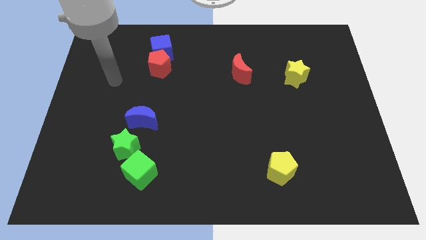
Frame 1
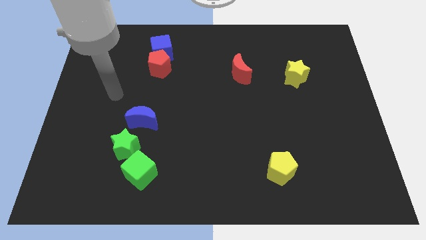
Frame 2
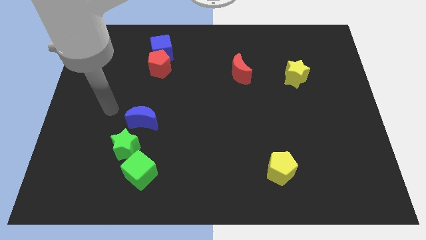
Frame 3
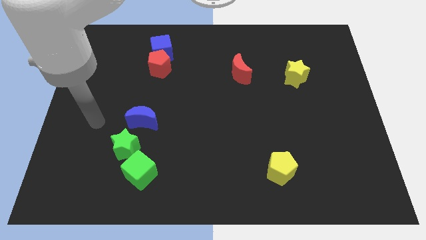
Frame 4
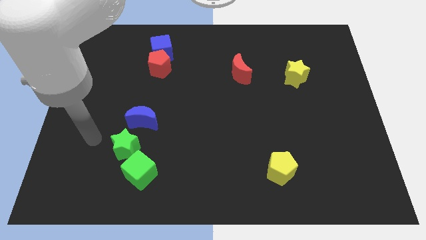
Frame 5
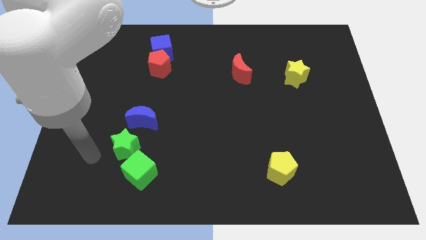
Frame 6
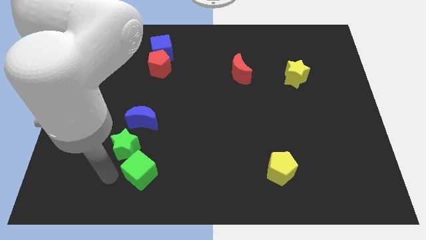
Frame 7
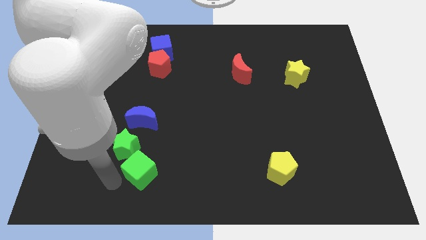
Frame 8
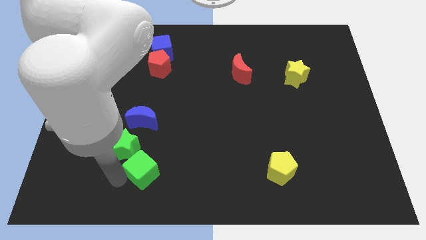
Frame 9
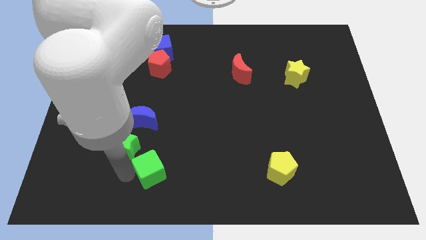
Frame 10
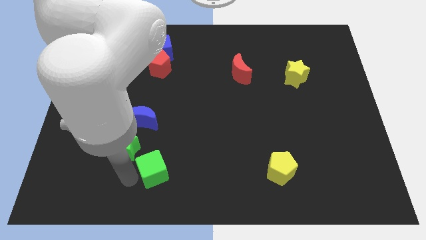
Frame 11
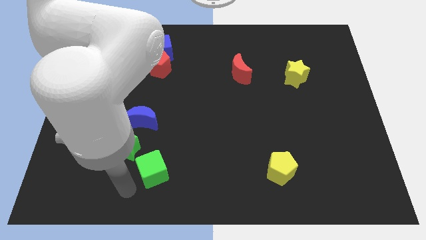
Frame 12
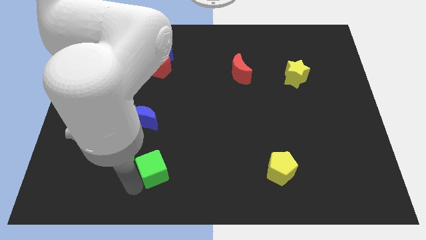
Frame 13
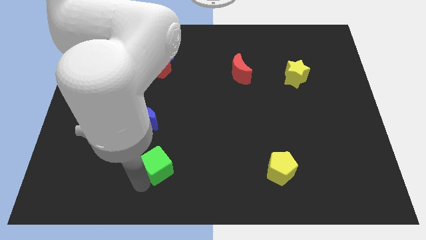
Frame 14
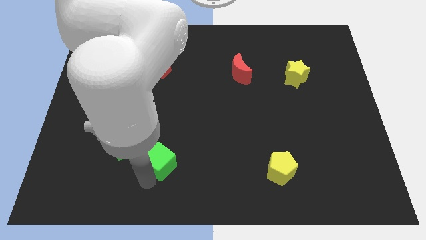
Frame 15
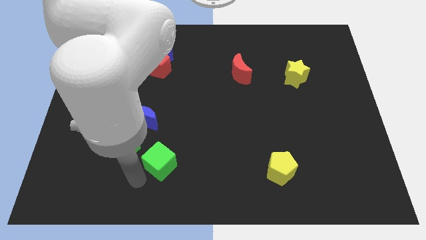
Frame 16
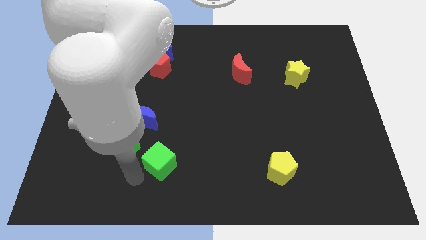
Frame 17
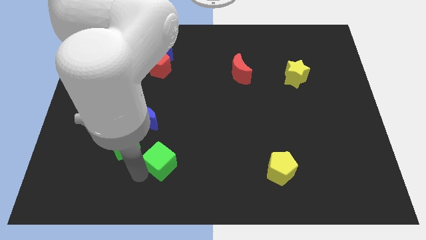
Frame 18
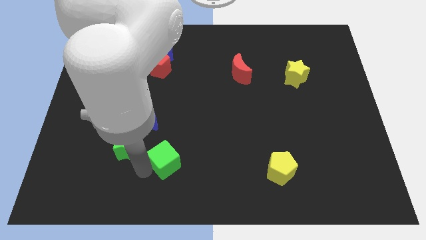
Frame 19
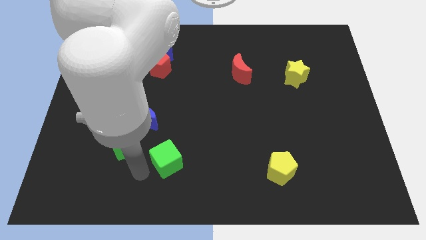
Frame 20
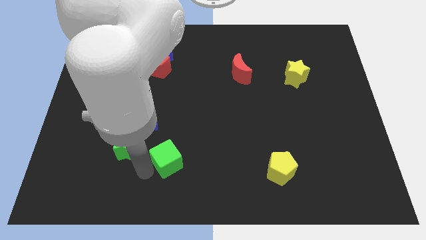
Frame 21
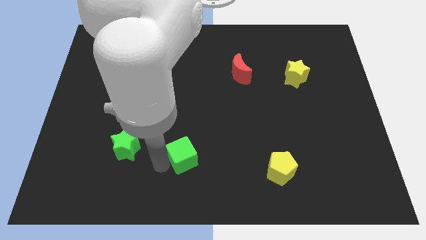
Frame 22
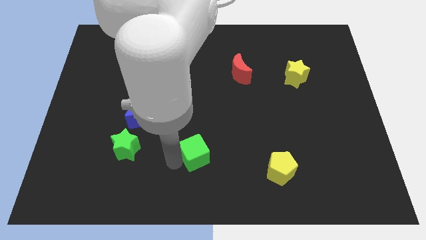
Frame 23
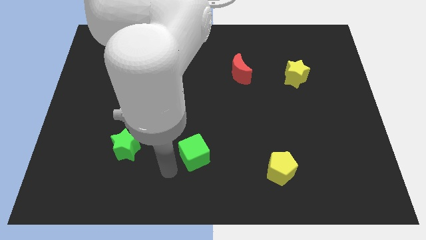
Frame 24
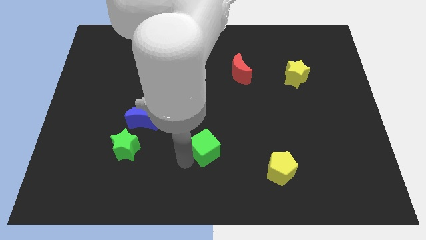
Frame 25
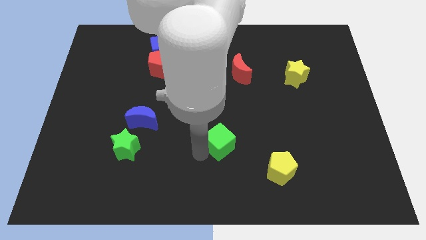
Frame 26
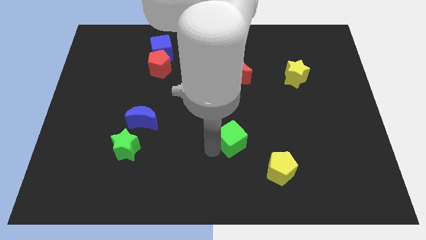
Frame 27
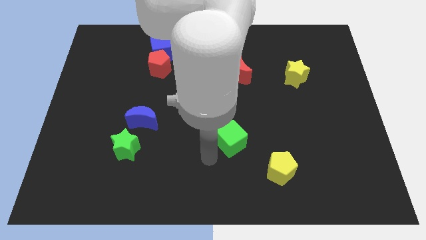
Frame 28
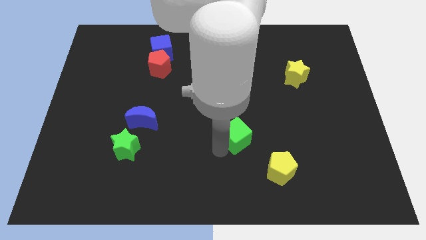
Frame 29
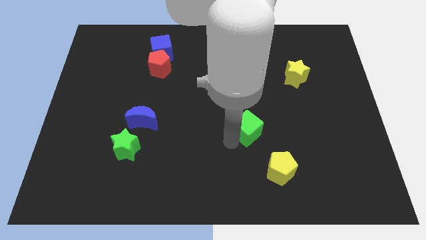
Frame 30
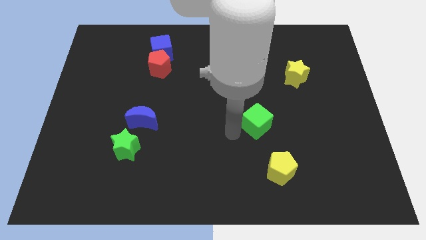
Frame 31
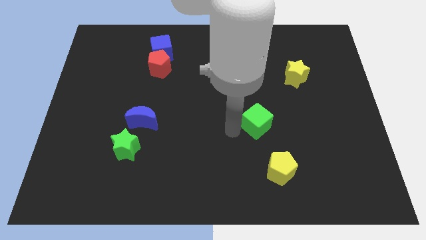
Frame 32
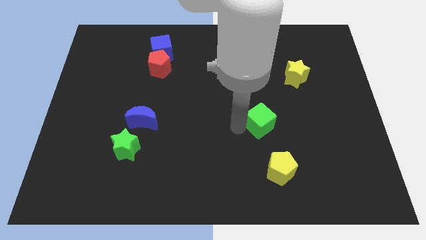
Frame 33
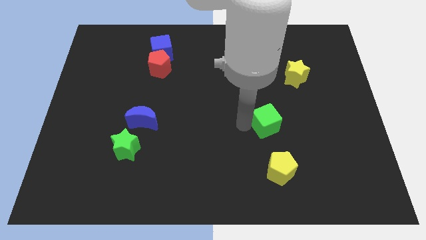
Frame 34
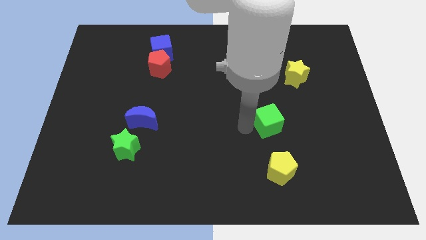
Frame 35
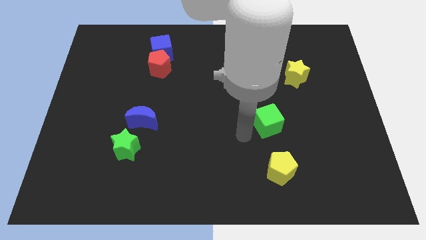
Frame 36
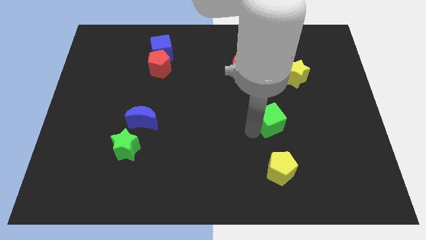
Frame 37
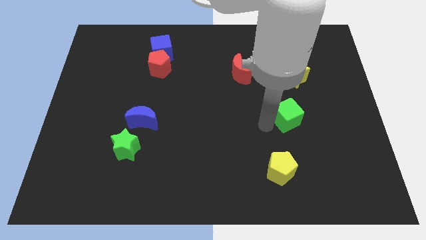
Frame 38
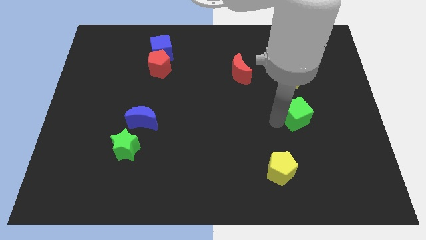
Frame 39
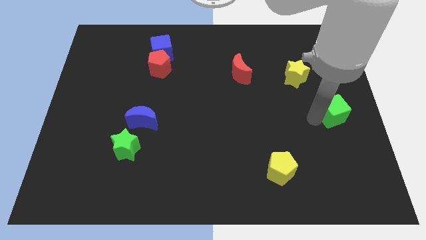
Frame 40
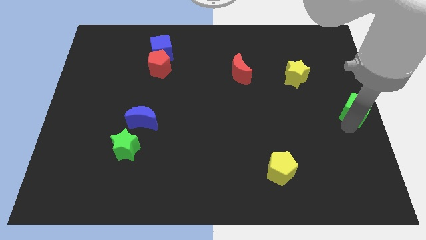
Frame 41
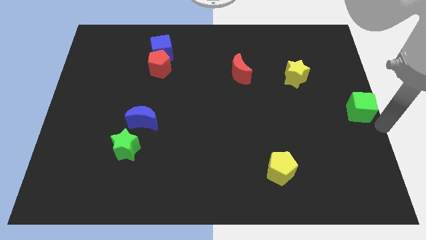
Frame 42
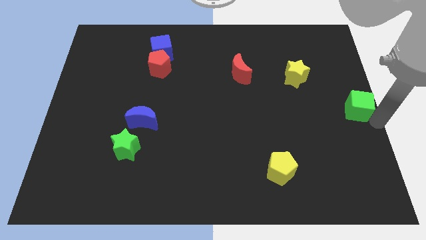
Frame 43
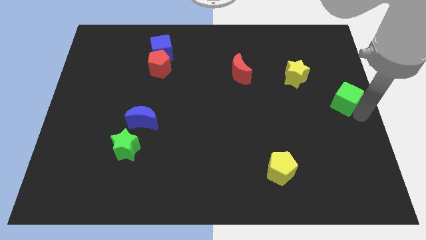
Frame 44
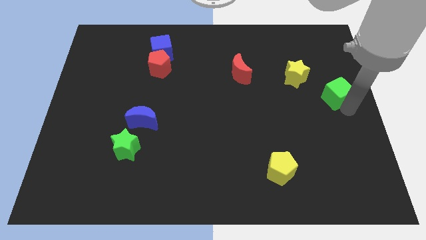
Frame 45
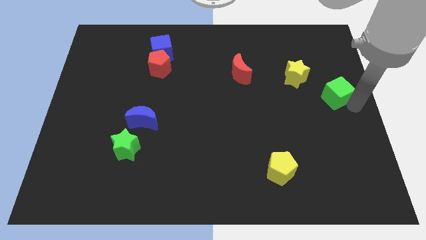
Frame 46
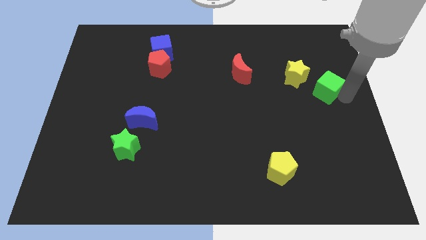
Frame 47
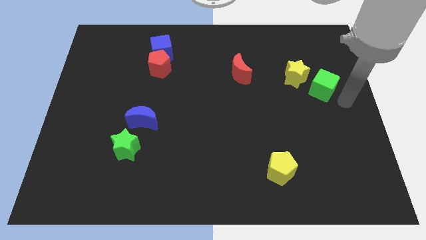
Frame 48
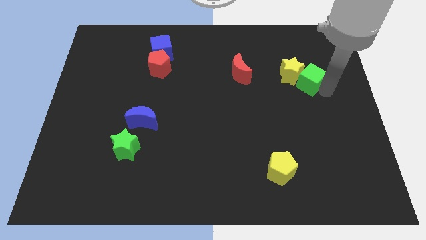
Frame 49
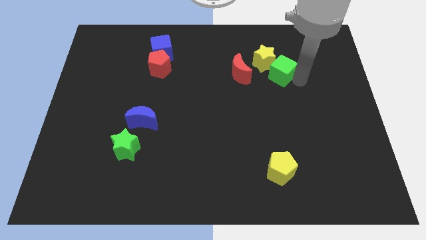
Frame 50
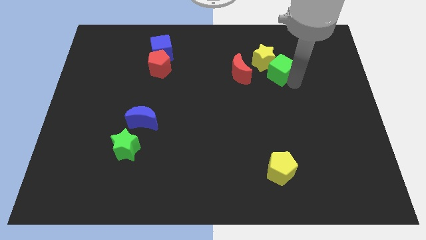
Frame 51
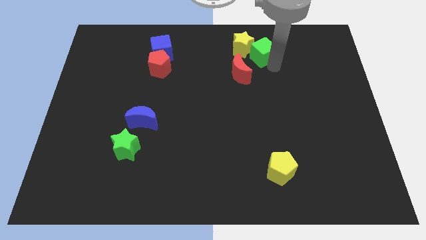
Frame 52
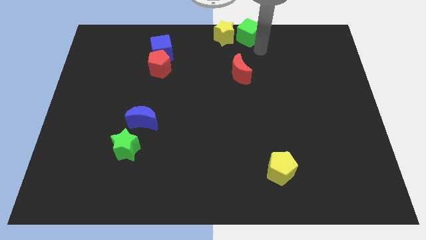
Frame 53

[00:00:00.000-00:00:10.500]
move the green cube to the top side

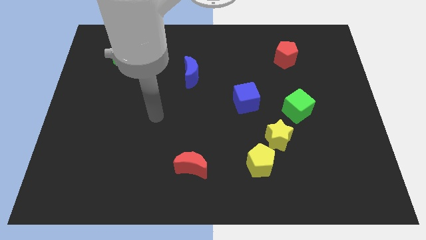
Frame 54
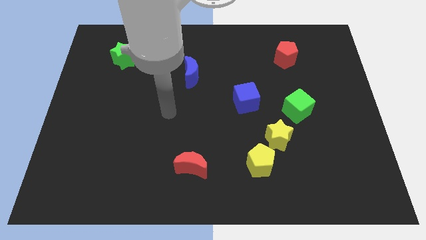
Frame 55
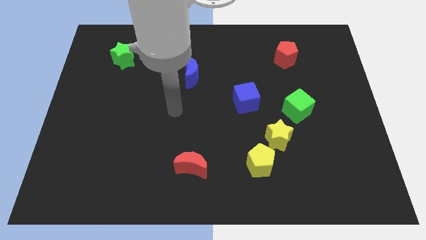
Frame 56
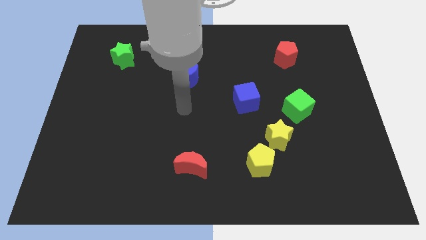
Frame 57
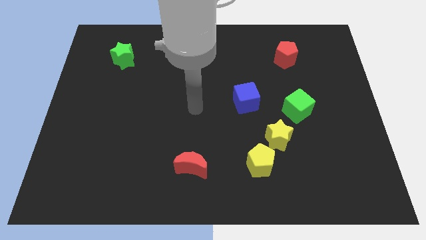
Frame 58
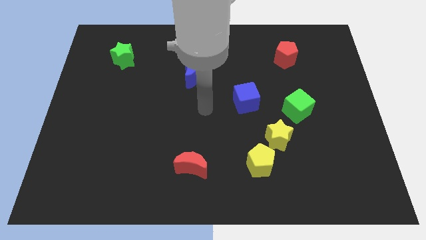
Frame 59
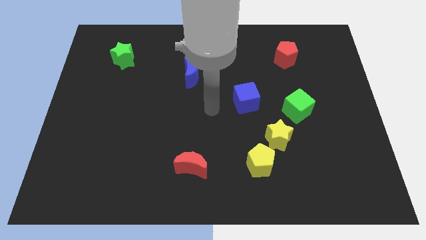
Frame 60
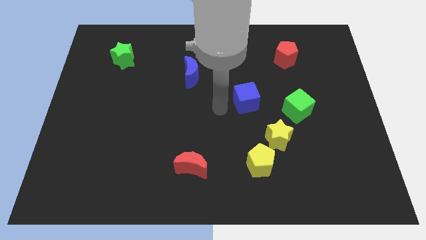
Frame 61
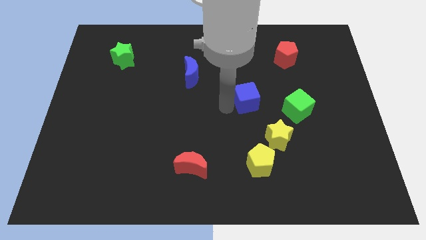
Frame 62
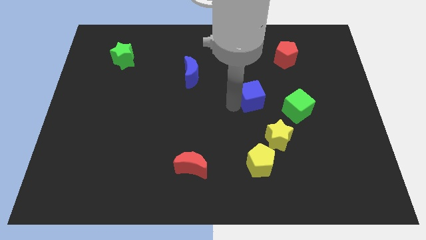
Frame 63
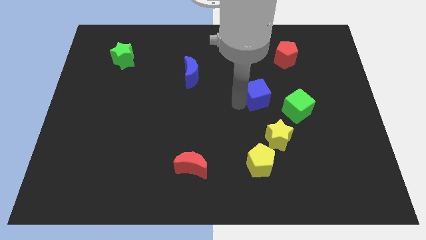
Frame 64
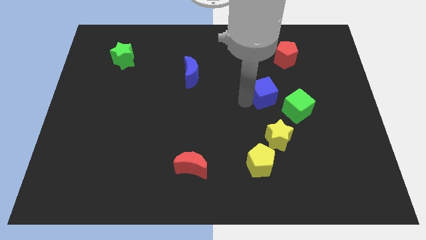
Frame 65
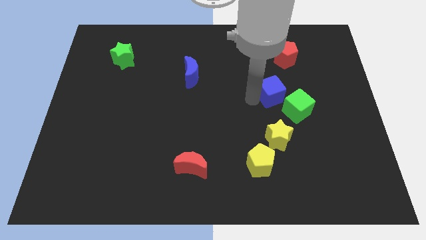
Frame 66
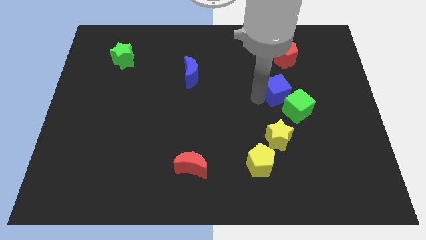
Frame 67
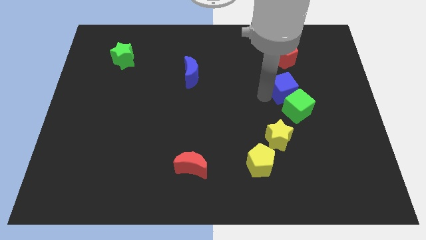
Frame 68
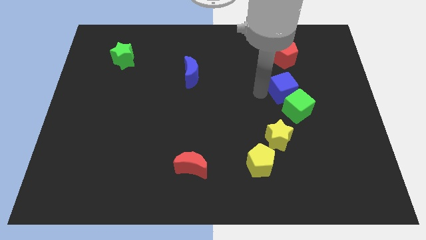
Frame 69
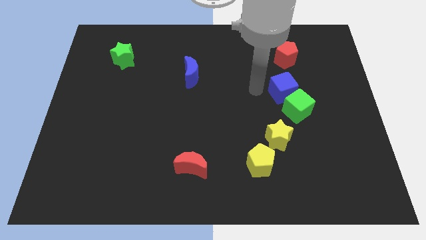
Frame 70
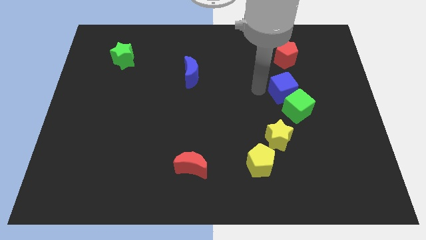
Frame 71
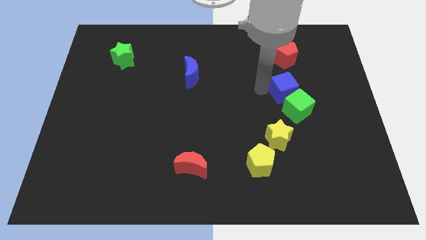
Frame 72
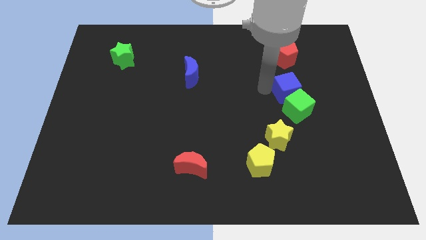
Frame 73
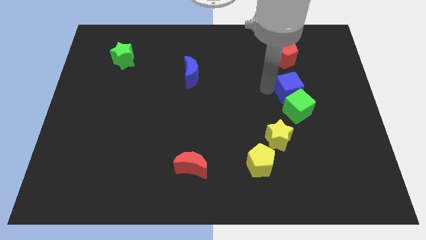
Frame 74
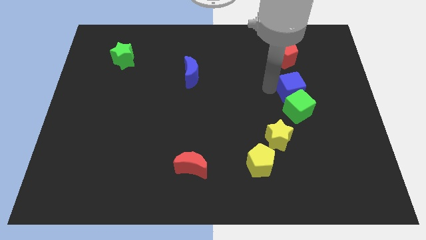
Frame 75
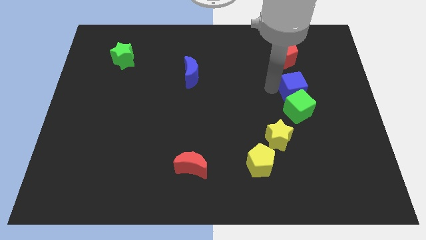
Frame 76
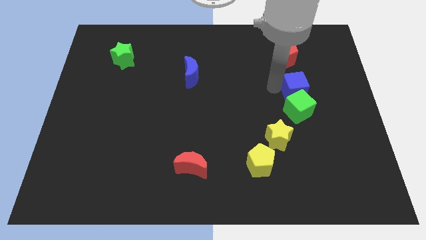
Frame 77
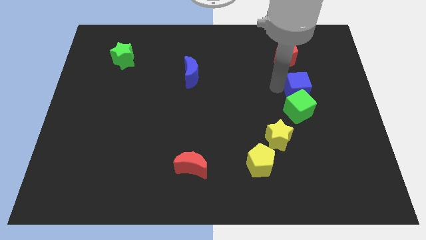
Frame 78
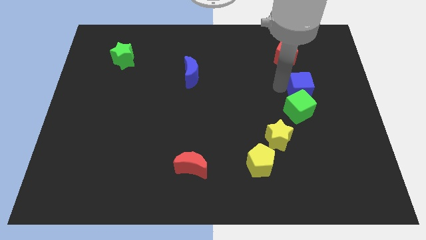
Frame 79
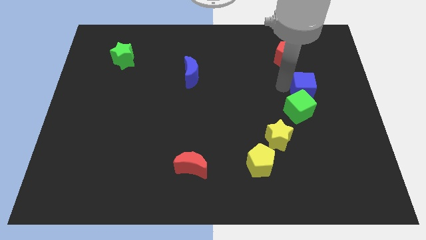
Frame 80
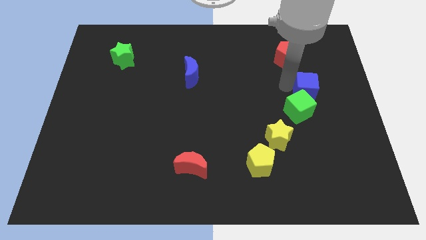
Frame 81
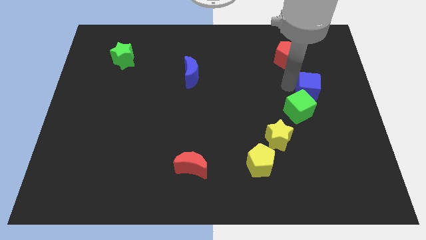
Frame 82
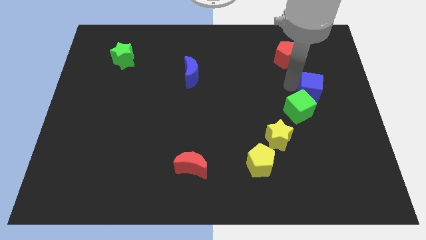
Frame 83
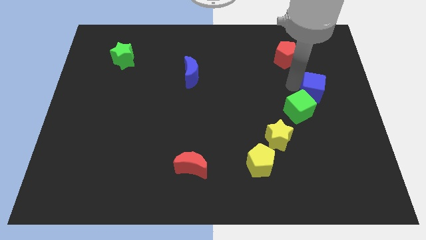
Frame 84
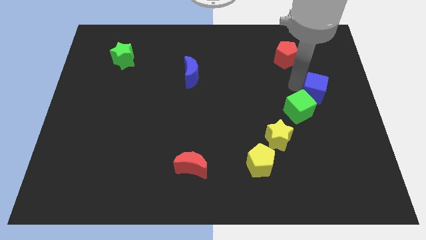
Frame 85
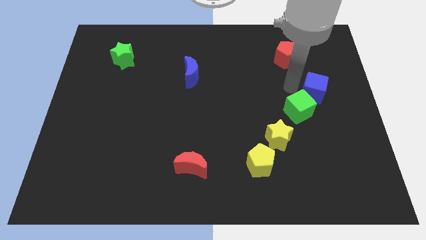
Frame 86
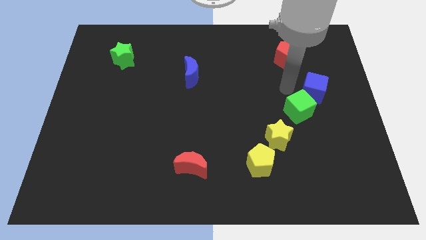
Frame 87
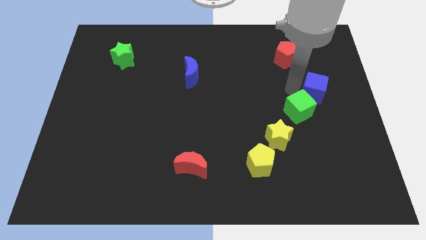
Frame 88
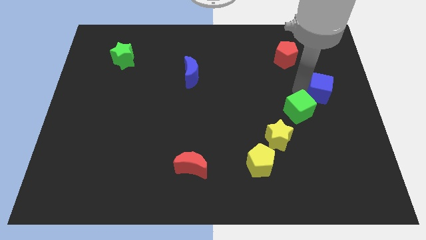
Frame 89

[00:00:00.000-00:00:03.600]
move the blue cube to the center right
